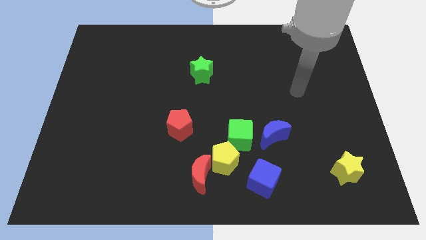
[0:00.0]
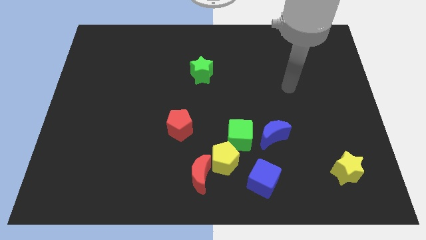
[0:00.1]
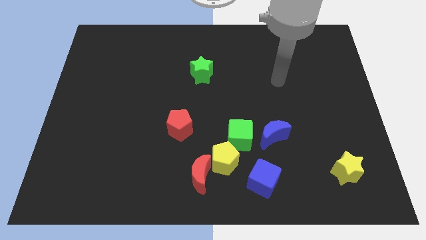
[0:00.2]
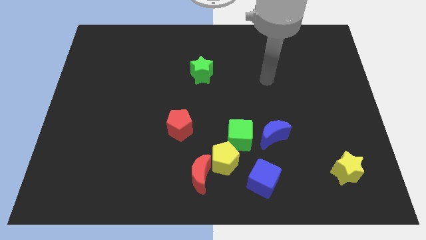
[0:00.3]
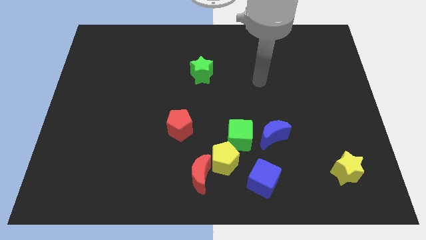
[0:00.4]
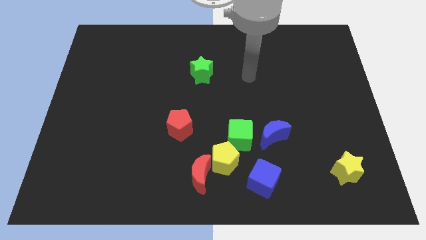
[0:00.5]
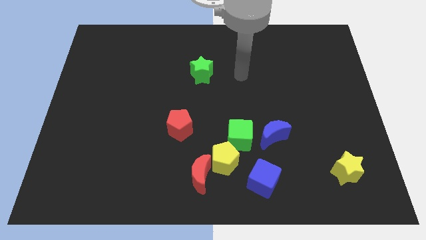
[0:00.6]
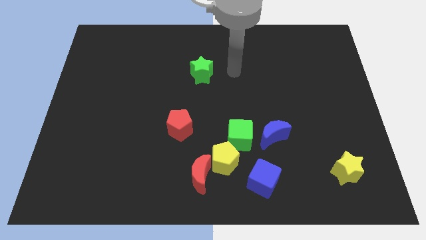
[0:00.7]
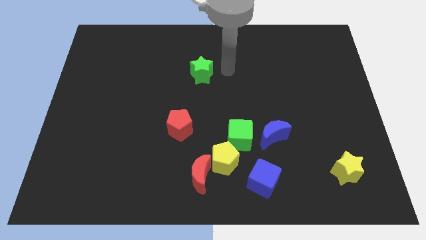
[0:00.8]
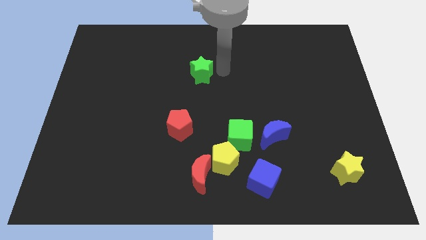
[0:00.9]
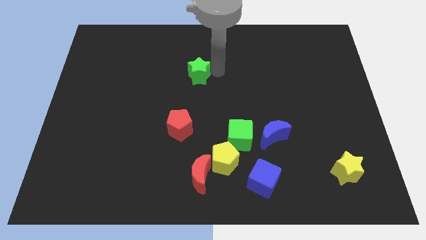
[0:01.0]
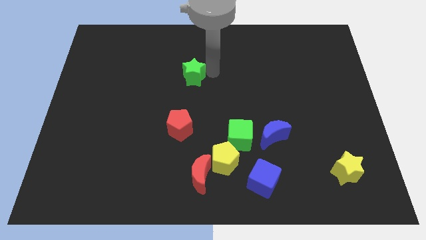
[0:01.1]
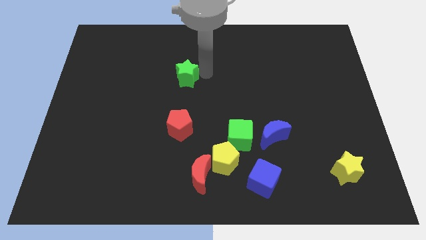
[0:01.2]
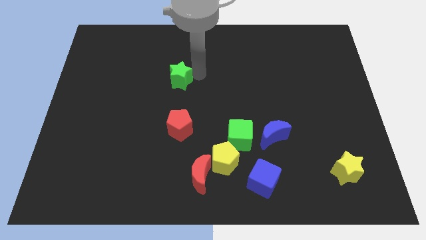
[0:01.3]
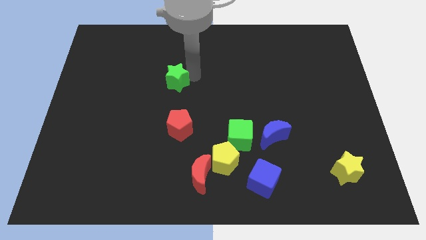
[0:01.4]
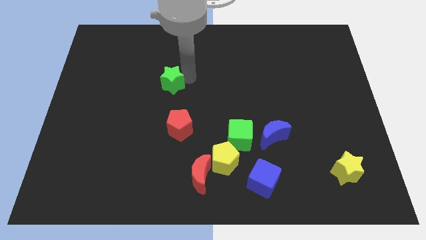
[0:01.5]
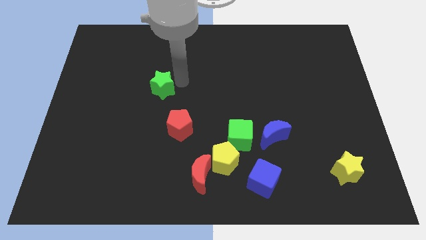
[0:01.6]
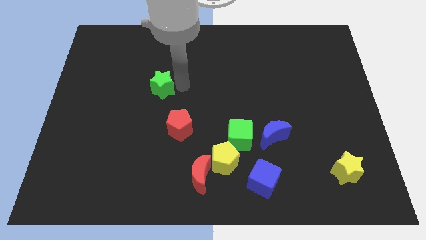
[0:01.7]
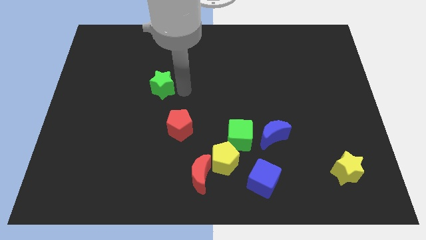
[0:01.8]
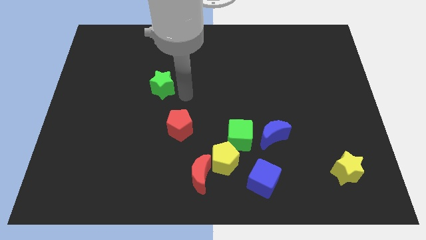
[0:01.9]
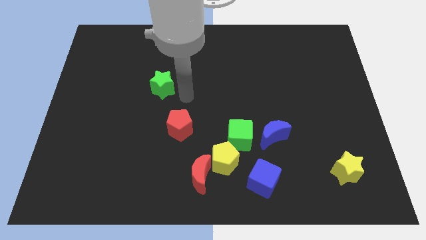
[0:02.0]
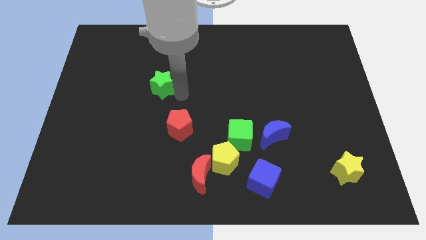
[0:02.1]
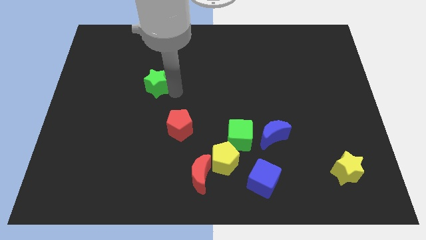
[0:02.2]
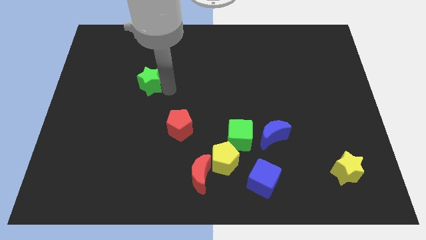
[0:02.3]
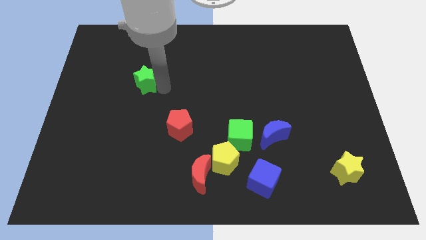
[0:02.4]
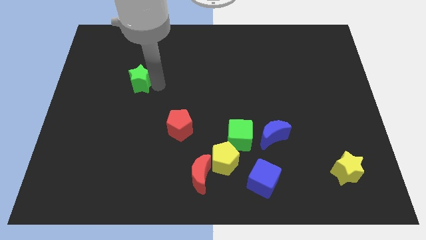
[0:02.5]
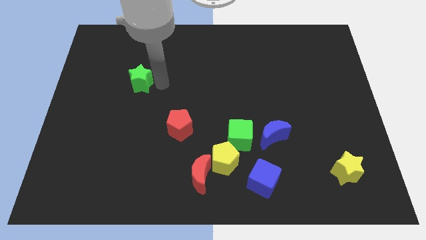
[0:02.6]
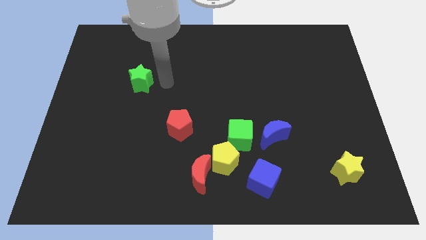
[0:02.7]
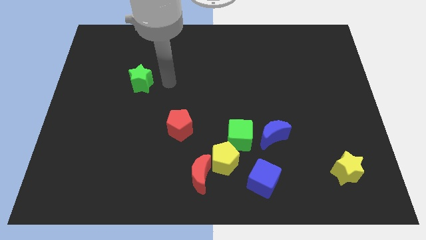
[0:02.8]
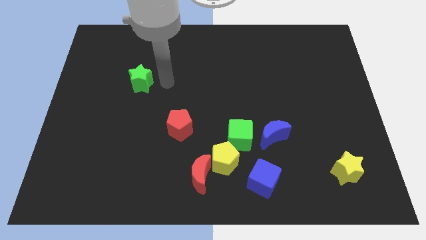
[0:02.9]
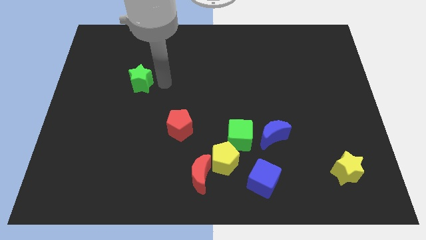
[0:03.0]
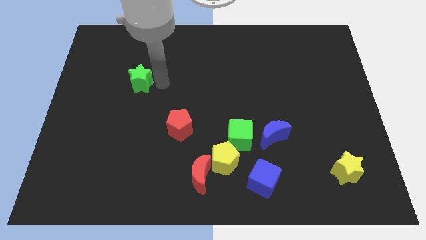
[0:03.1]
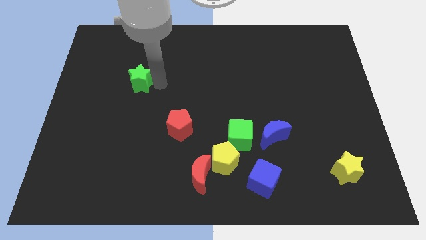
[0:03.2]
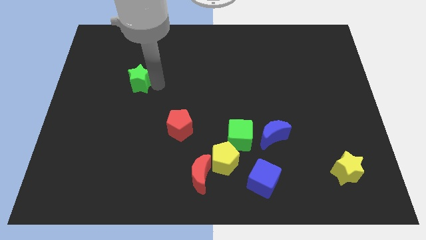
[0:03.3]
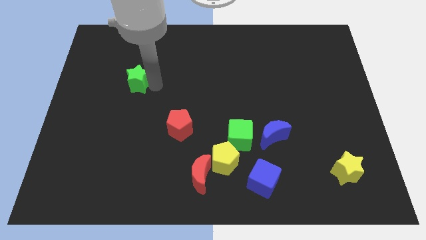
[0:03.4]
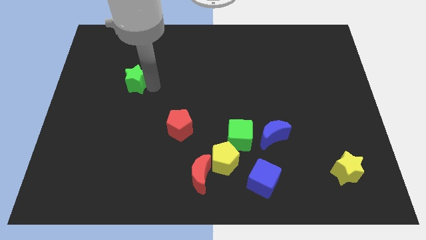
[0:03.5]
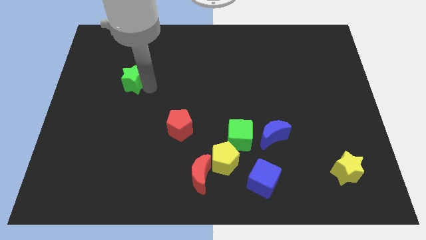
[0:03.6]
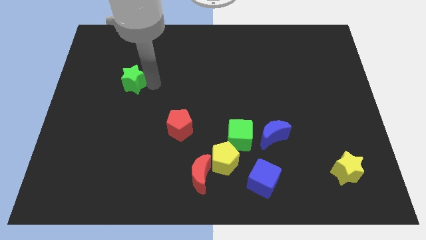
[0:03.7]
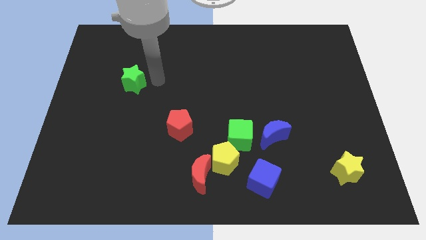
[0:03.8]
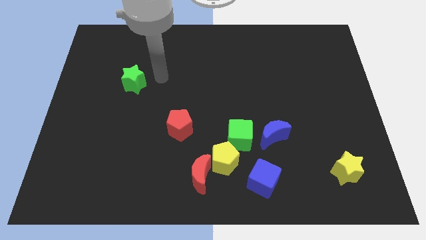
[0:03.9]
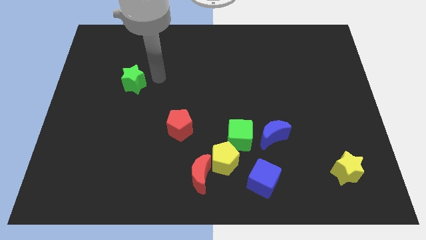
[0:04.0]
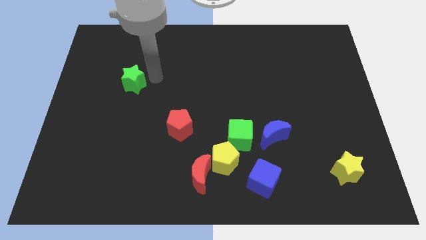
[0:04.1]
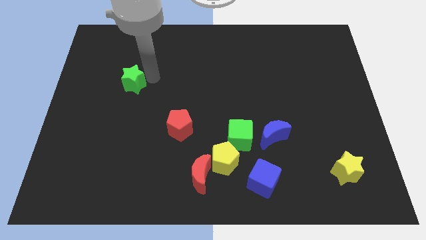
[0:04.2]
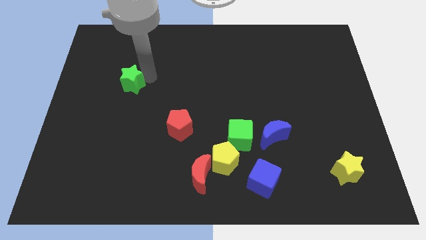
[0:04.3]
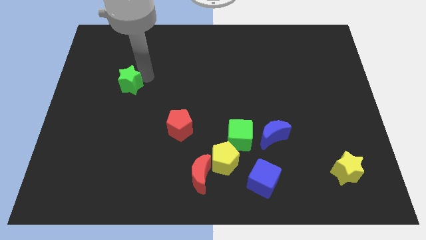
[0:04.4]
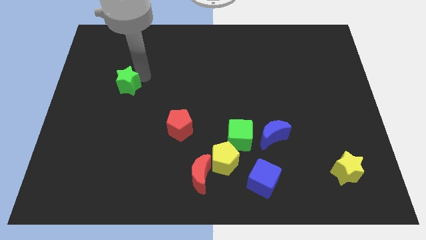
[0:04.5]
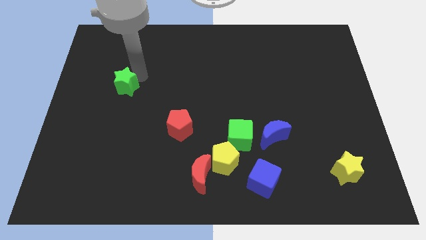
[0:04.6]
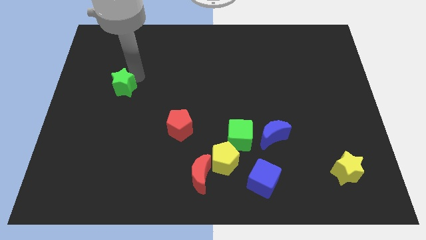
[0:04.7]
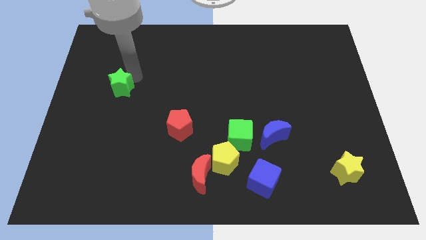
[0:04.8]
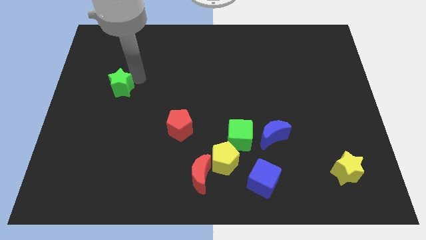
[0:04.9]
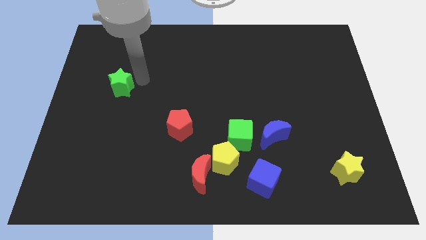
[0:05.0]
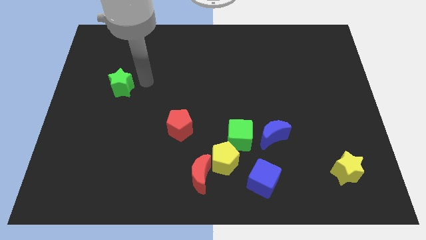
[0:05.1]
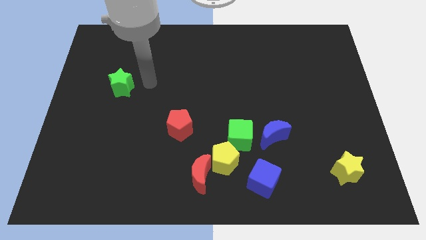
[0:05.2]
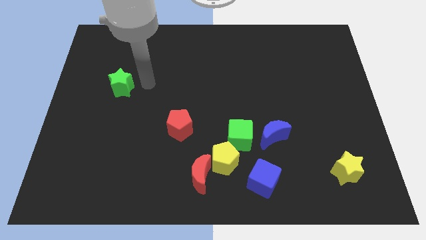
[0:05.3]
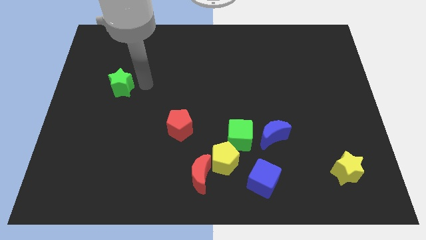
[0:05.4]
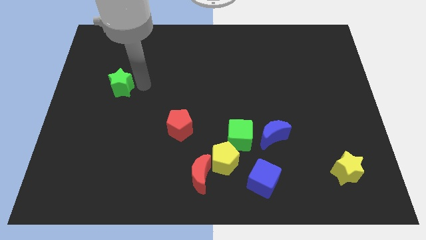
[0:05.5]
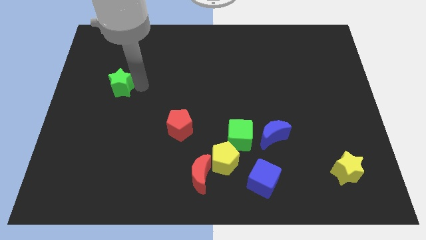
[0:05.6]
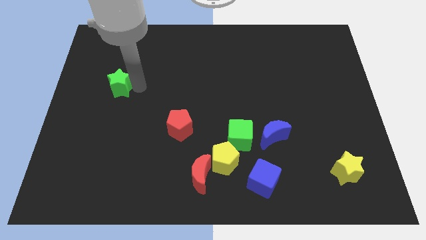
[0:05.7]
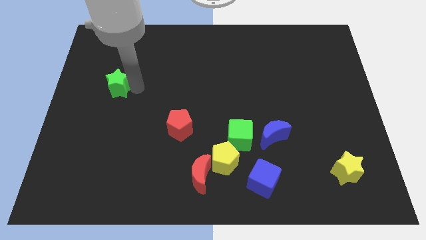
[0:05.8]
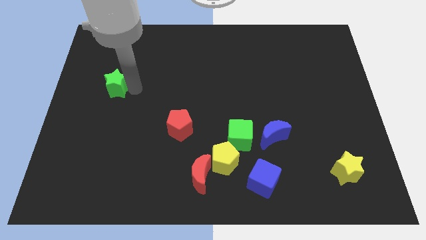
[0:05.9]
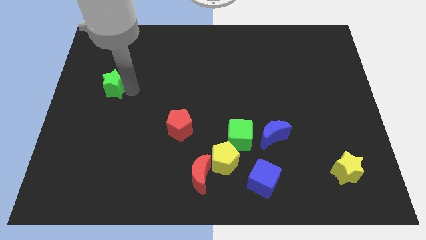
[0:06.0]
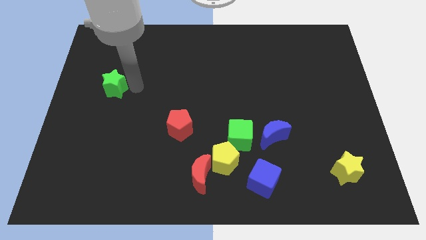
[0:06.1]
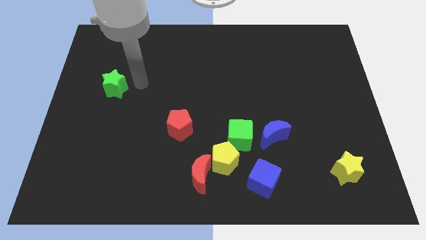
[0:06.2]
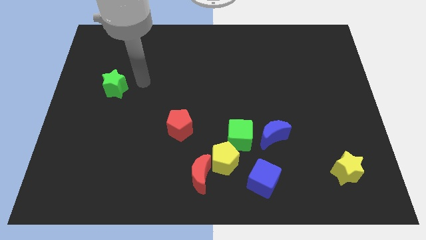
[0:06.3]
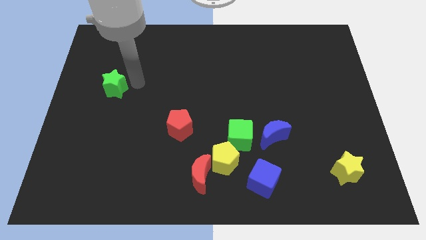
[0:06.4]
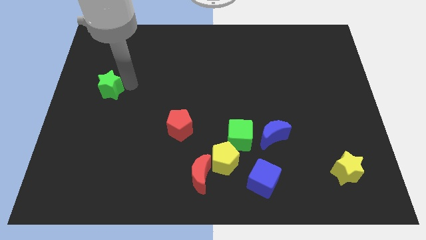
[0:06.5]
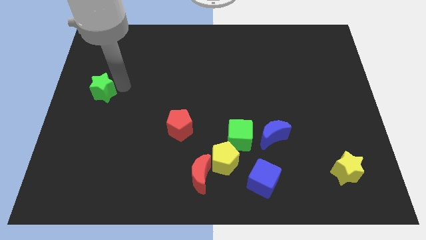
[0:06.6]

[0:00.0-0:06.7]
put the green star to the center left
